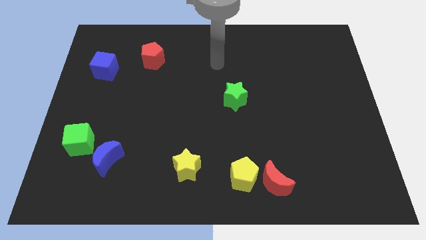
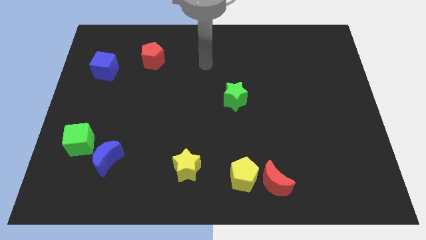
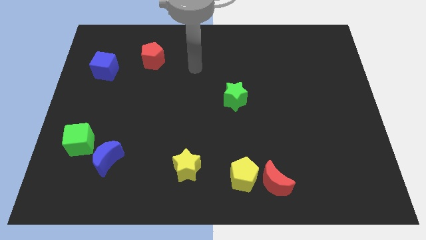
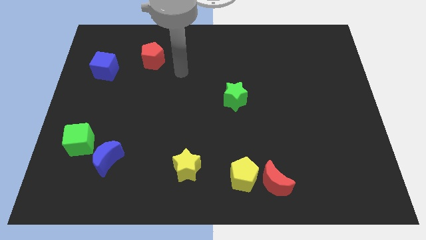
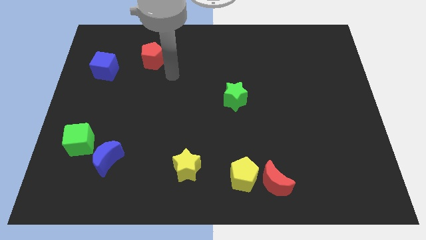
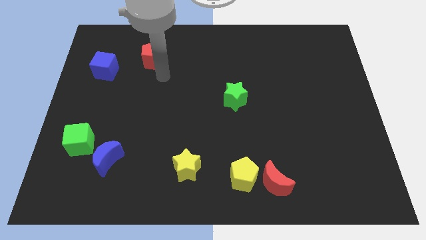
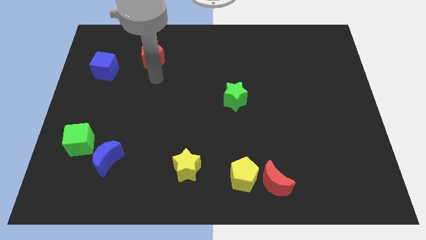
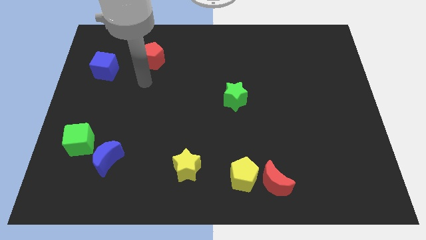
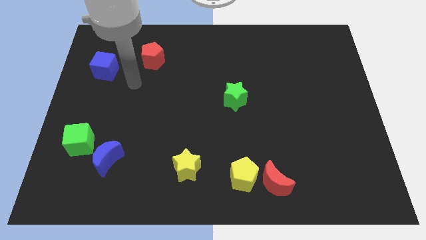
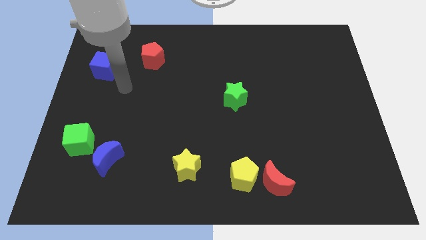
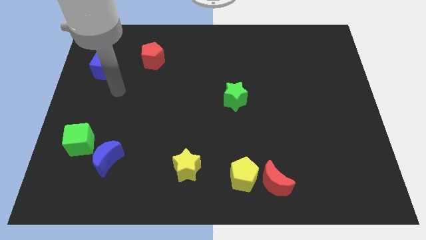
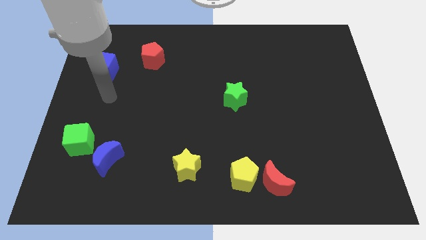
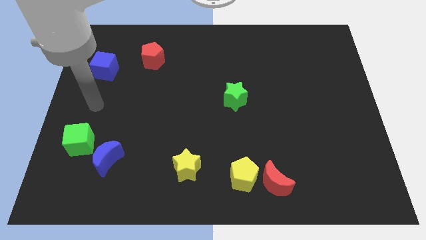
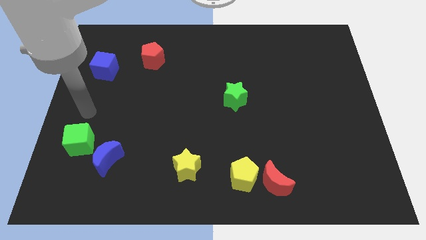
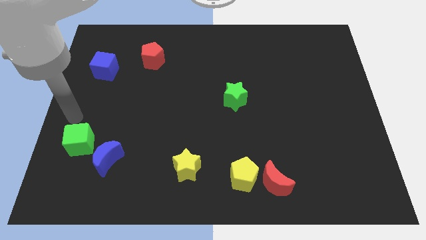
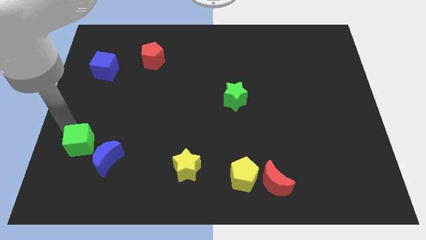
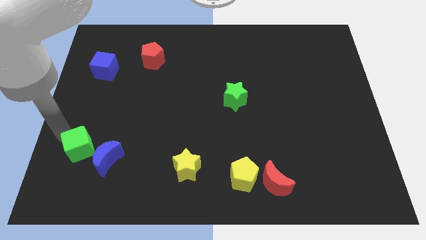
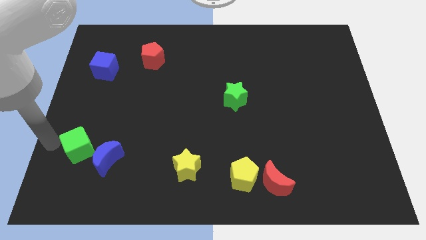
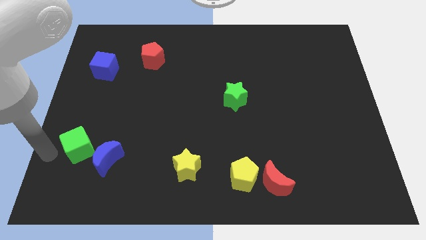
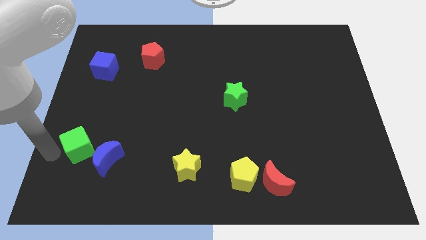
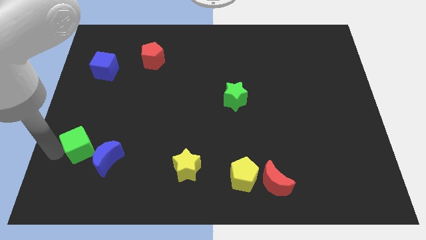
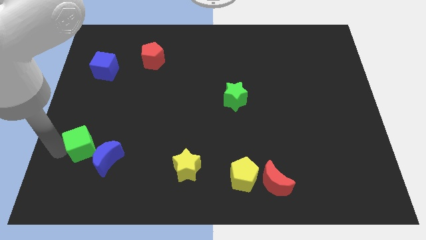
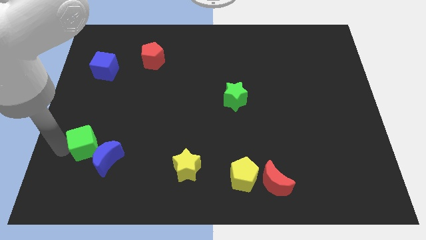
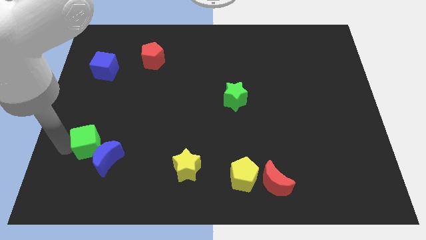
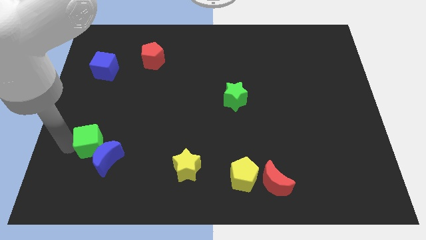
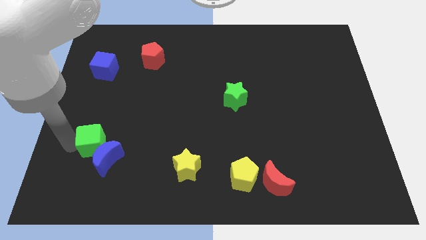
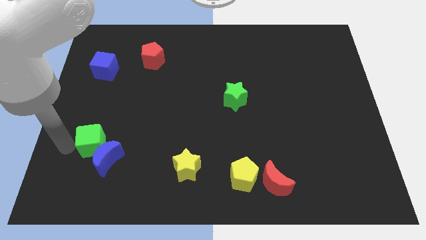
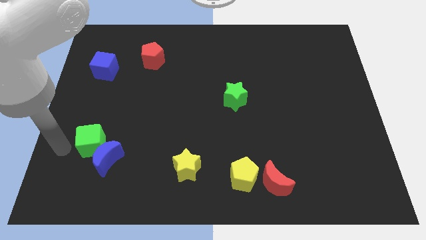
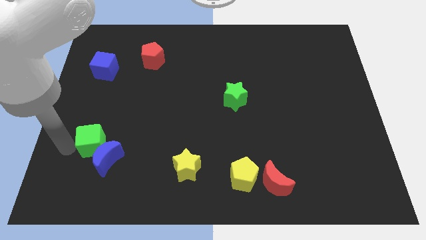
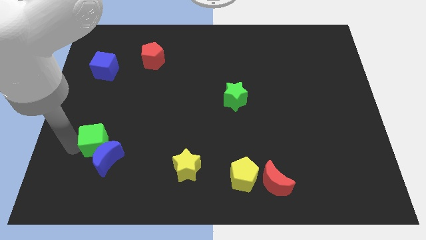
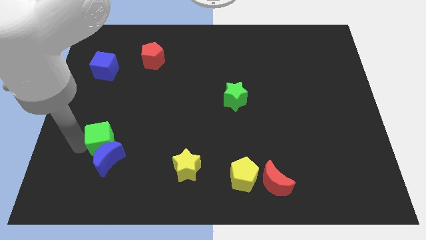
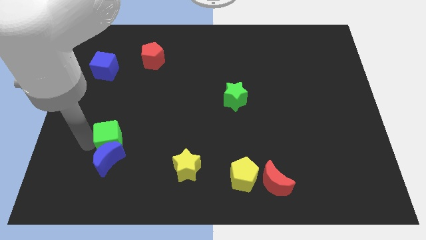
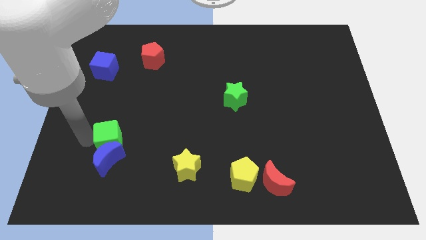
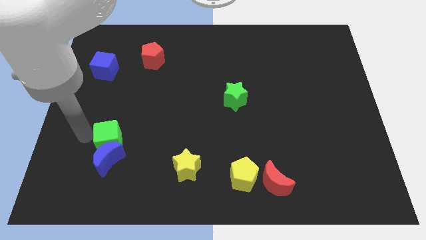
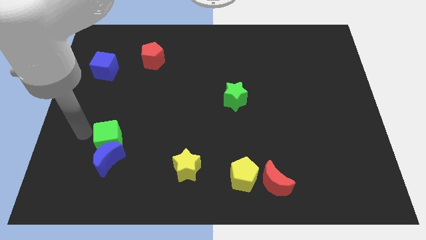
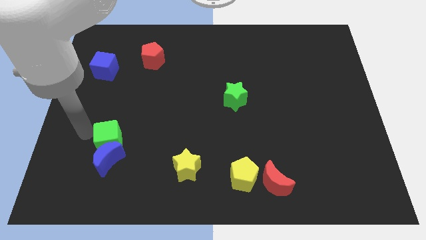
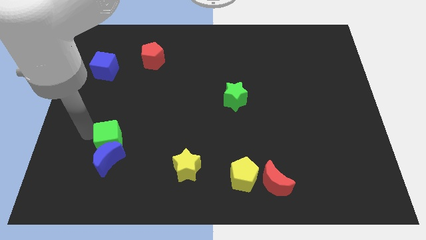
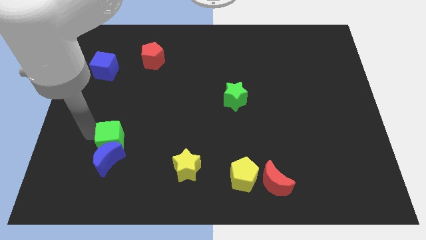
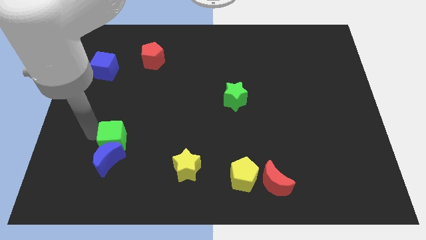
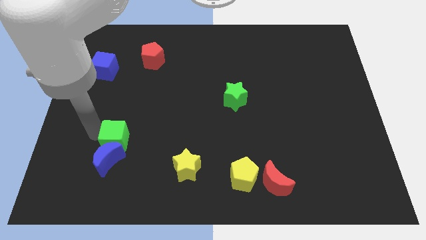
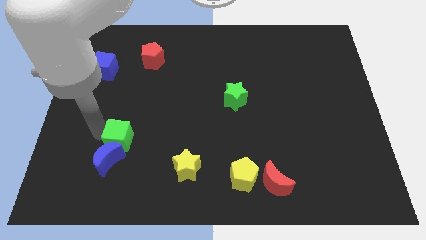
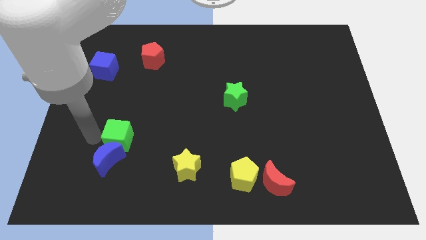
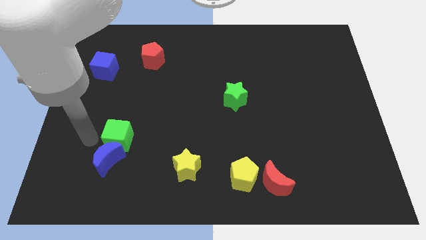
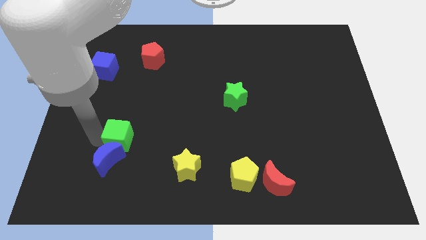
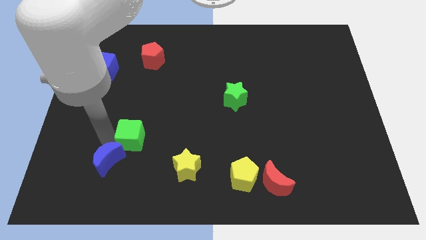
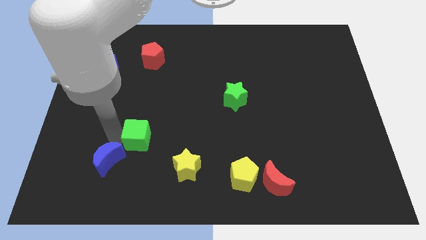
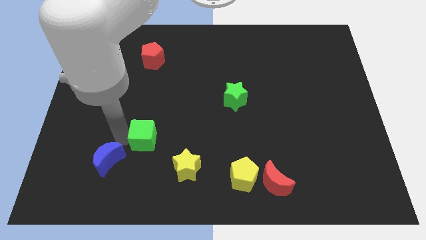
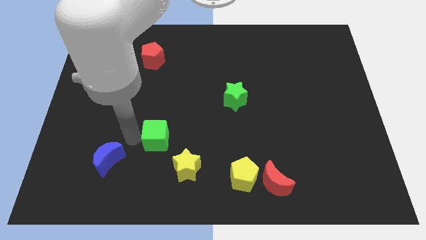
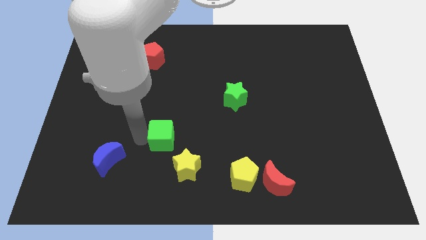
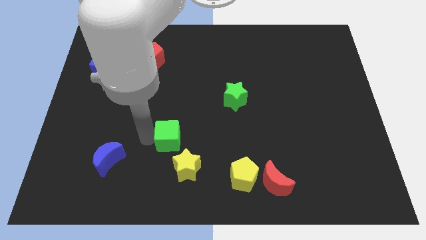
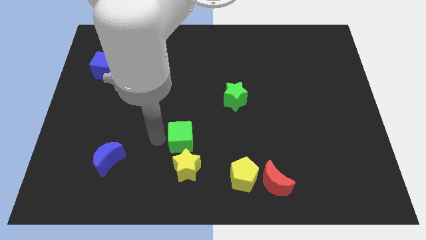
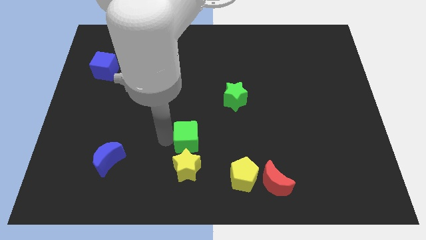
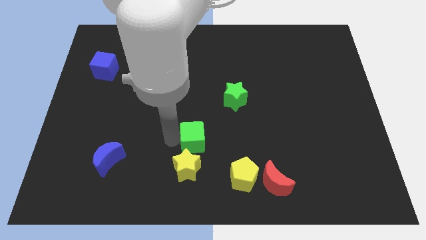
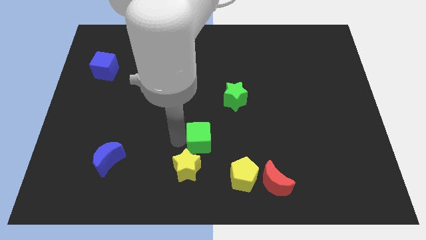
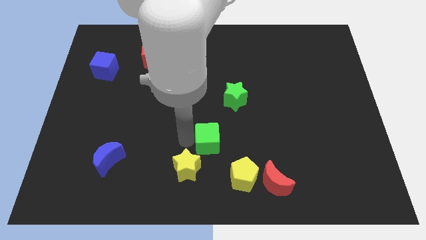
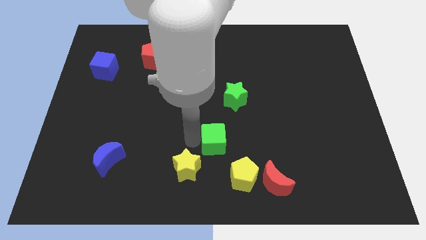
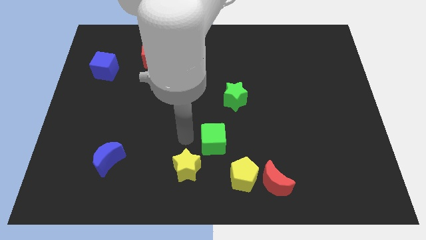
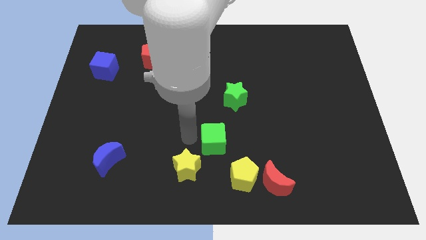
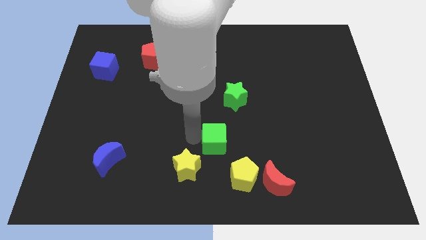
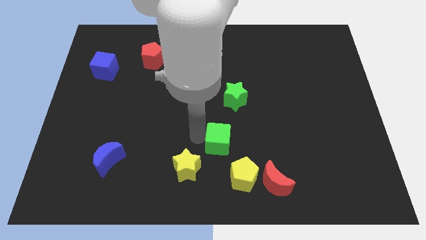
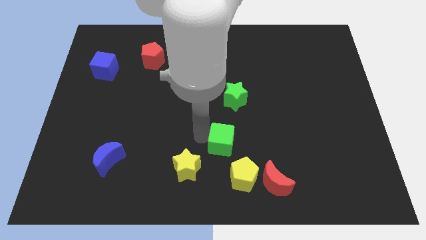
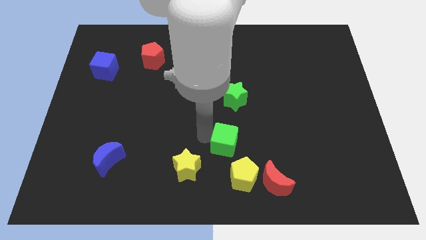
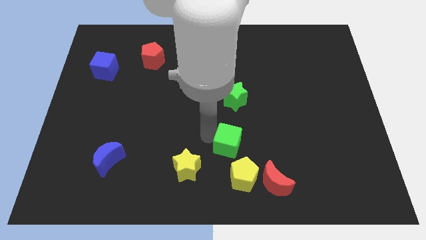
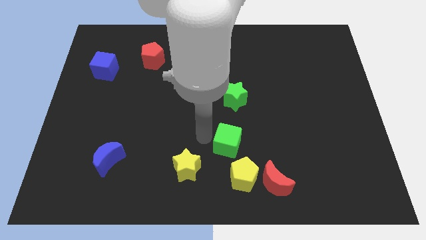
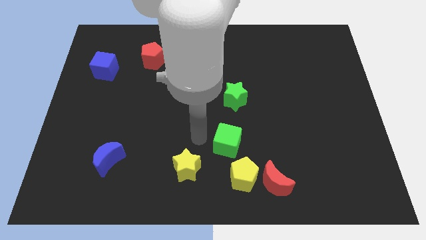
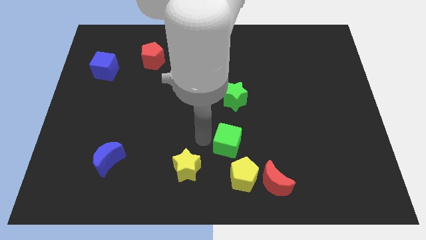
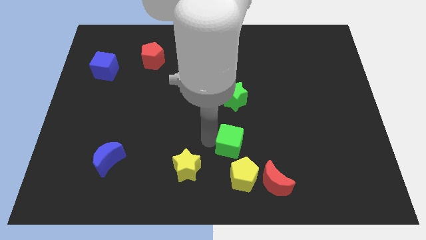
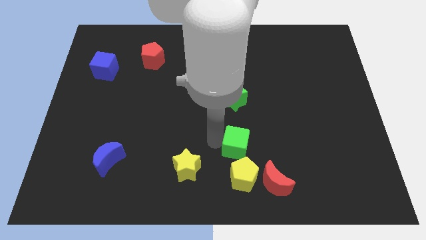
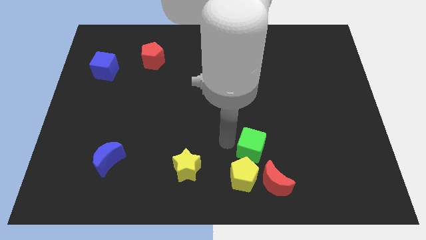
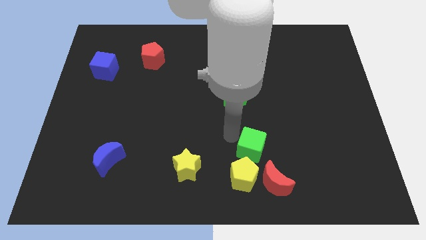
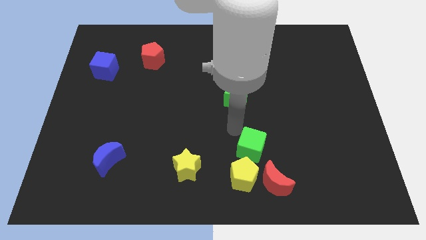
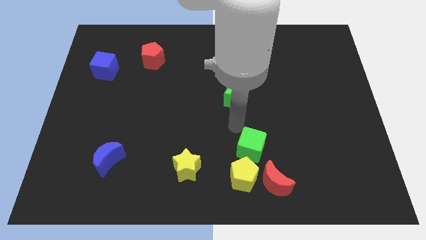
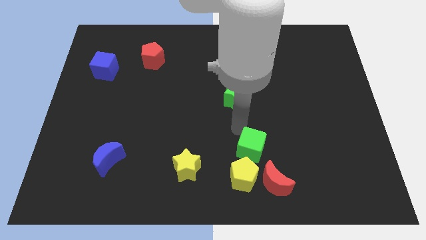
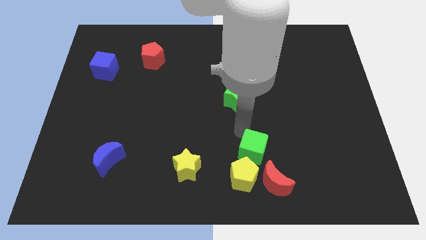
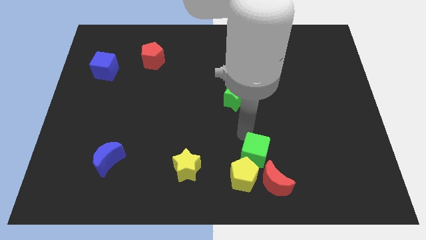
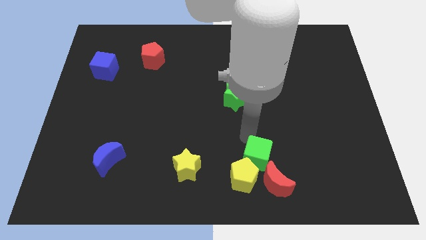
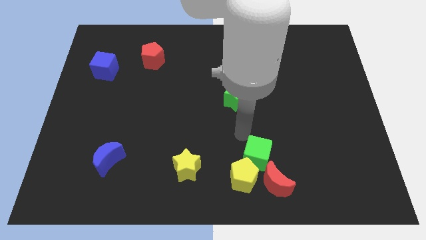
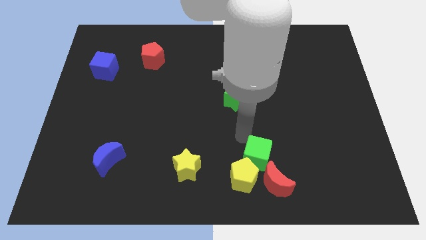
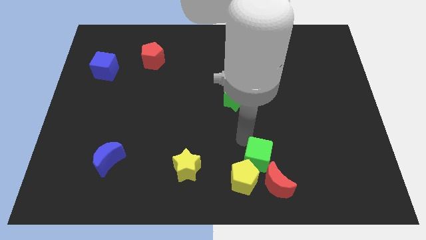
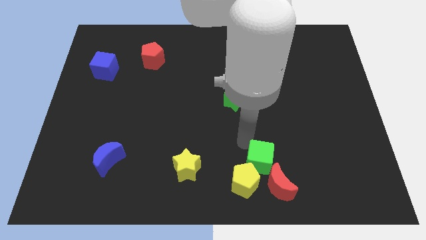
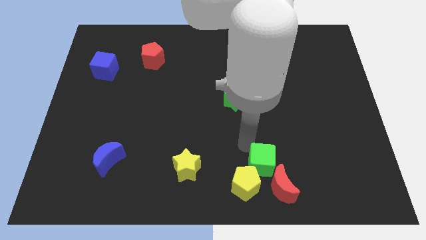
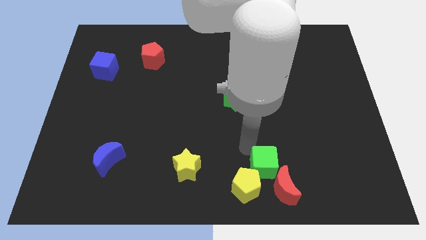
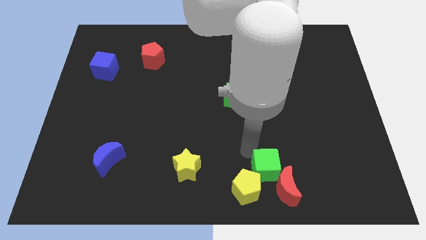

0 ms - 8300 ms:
put the green cube to the red moon
